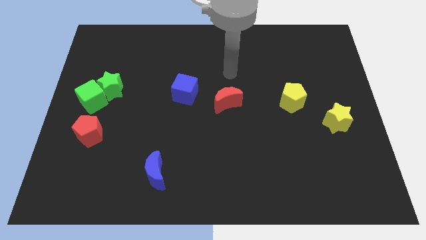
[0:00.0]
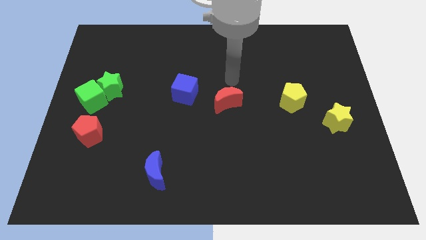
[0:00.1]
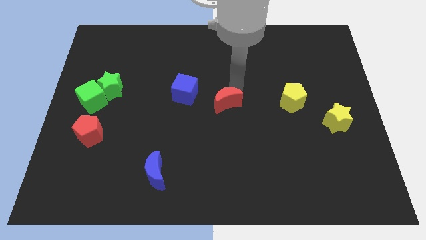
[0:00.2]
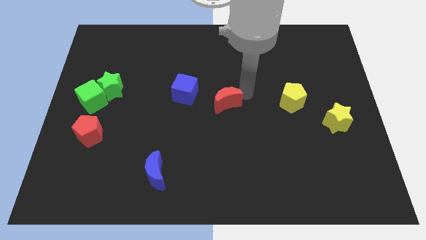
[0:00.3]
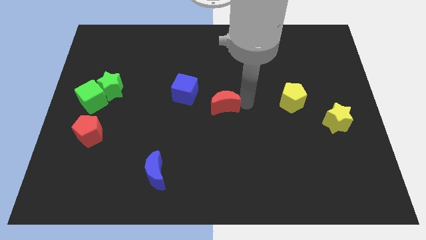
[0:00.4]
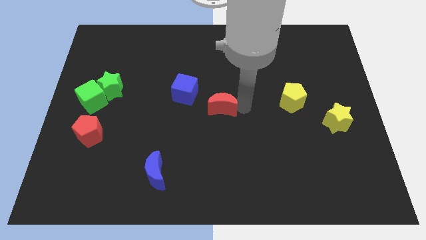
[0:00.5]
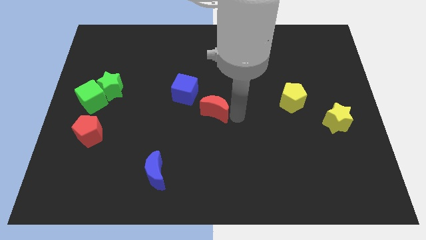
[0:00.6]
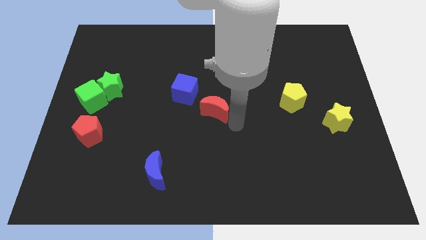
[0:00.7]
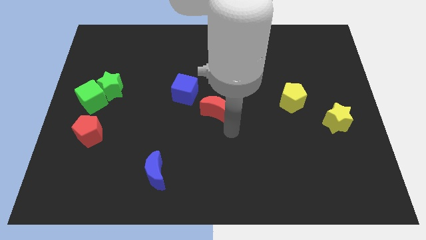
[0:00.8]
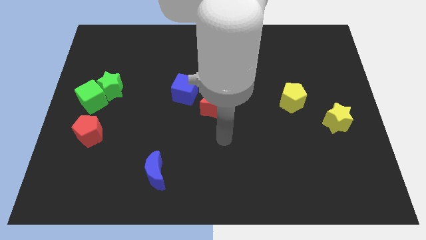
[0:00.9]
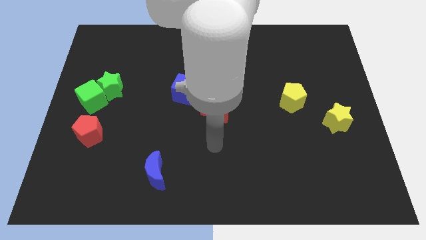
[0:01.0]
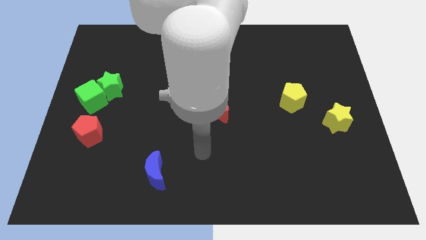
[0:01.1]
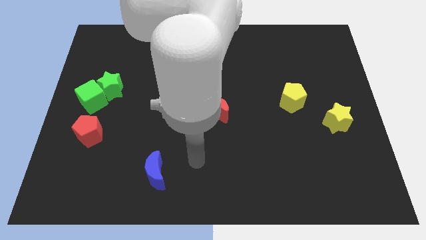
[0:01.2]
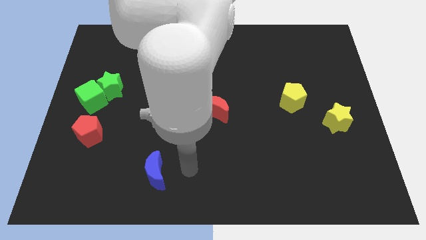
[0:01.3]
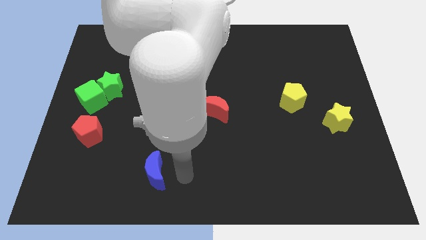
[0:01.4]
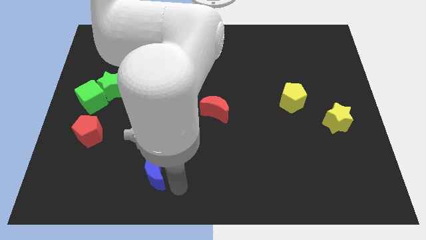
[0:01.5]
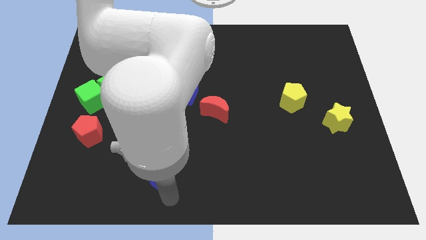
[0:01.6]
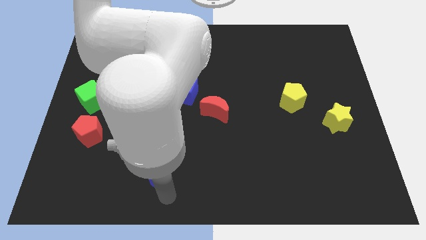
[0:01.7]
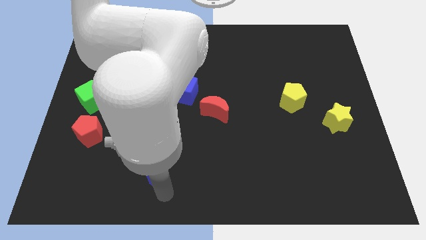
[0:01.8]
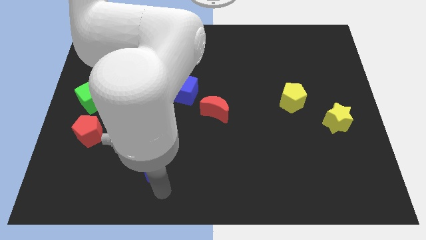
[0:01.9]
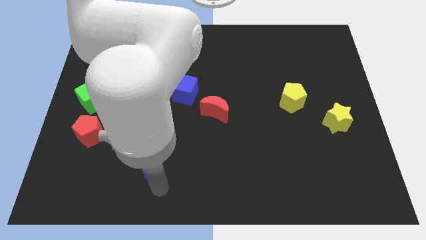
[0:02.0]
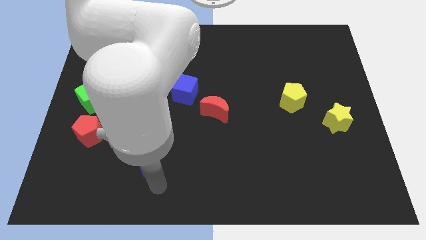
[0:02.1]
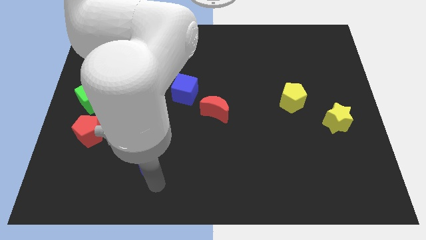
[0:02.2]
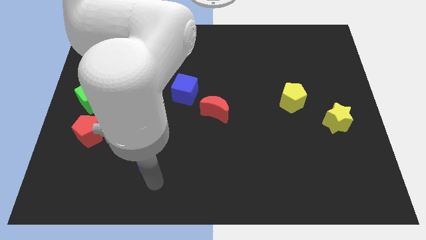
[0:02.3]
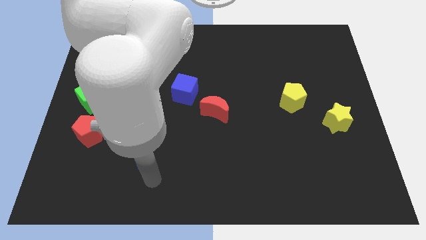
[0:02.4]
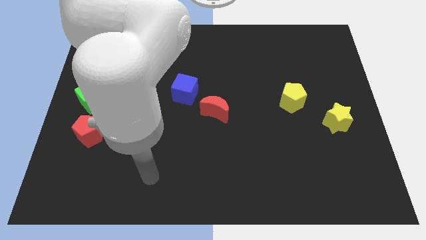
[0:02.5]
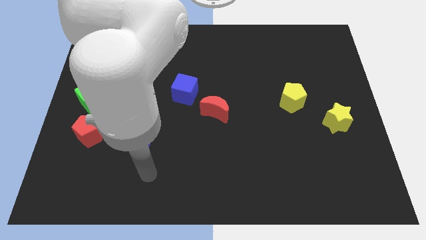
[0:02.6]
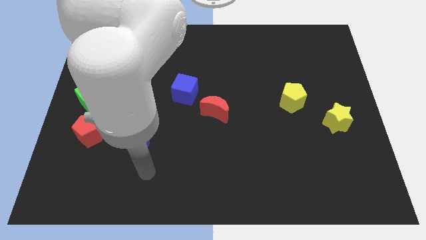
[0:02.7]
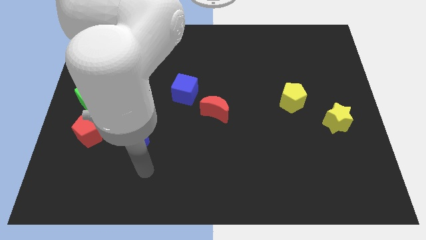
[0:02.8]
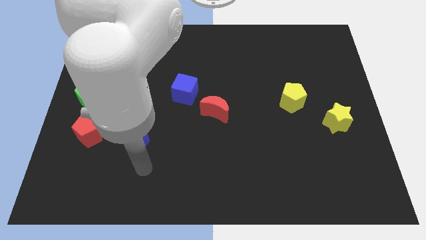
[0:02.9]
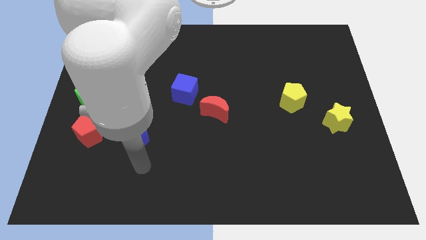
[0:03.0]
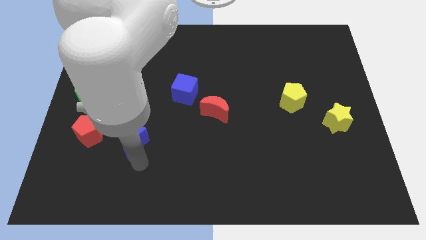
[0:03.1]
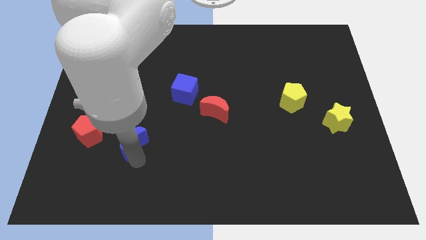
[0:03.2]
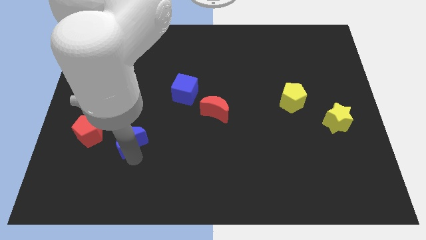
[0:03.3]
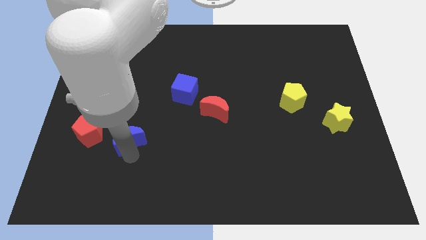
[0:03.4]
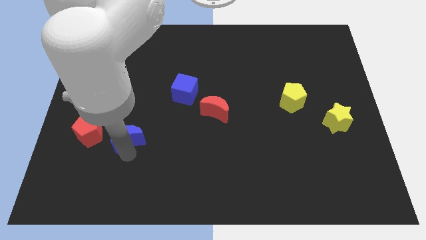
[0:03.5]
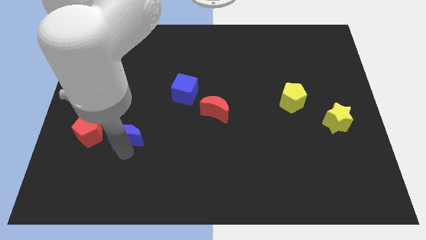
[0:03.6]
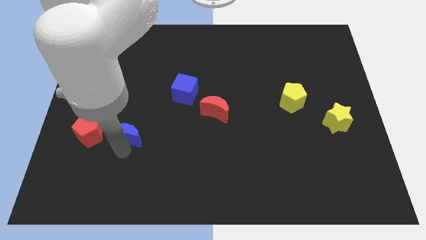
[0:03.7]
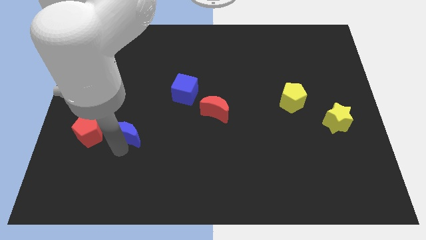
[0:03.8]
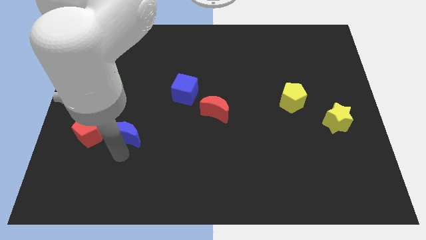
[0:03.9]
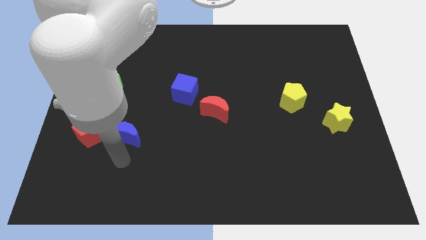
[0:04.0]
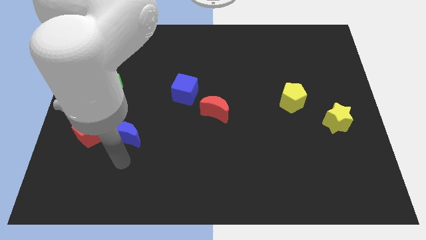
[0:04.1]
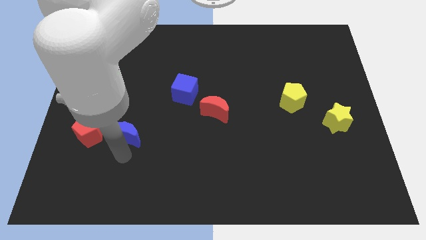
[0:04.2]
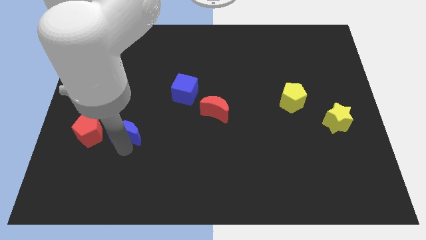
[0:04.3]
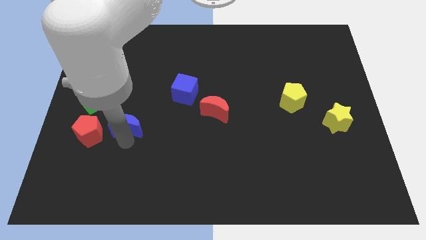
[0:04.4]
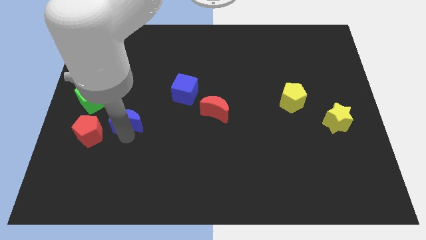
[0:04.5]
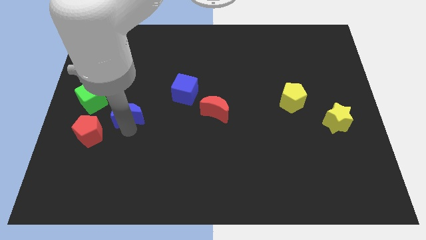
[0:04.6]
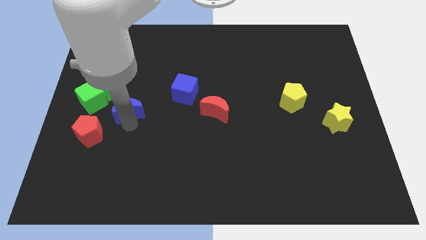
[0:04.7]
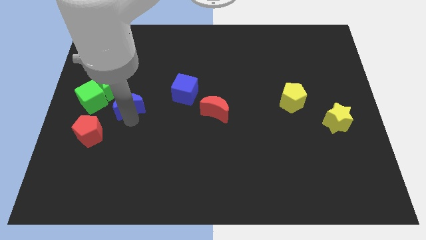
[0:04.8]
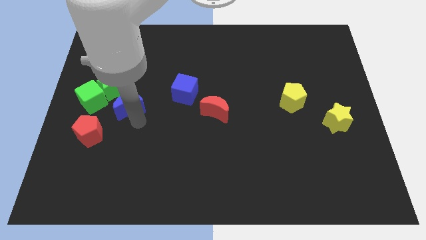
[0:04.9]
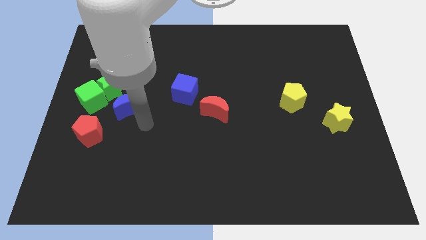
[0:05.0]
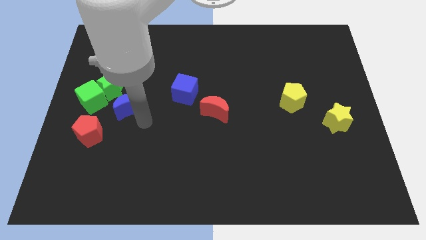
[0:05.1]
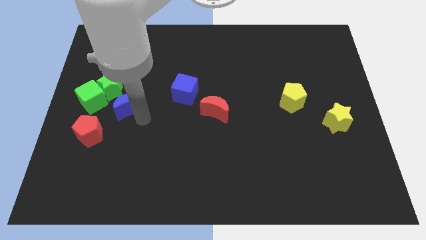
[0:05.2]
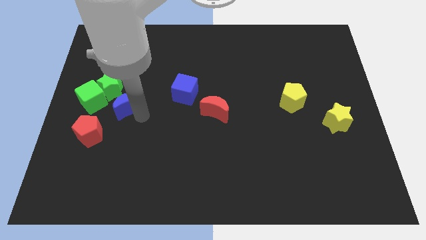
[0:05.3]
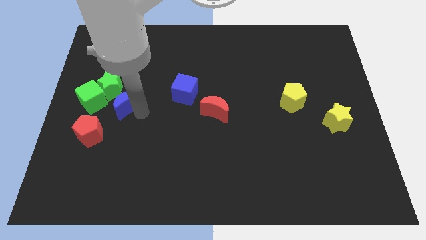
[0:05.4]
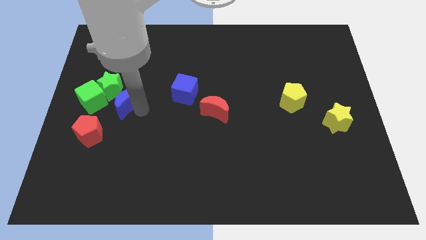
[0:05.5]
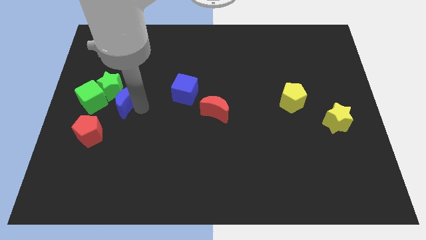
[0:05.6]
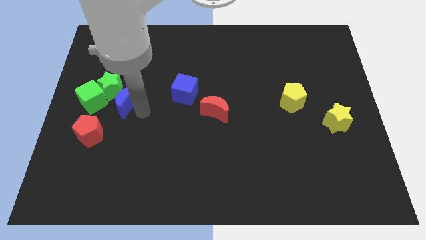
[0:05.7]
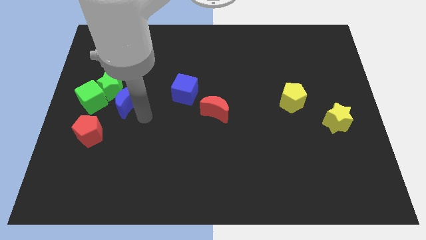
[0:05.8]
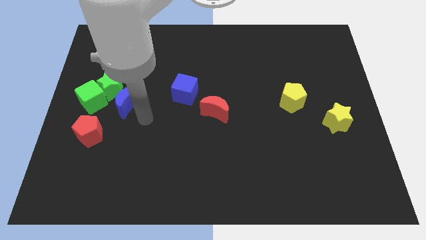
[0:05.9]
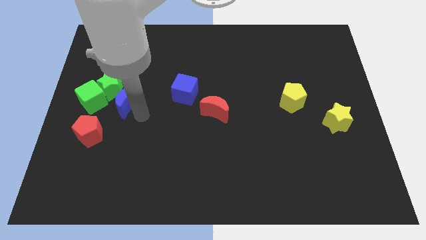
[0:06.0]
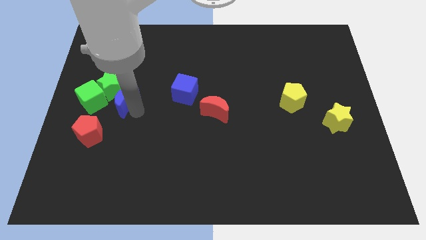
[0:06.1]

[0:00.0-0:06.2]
push the blue moon next to the green star
